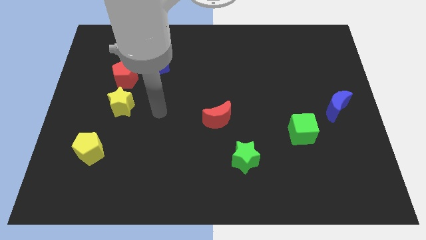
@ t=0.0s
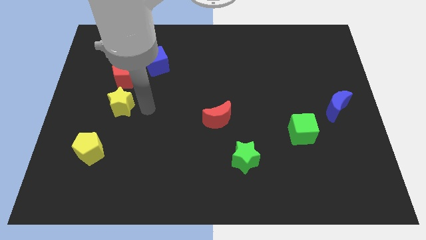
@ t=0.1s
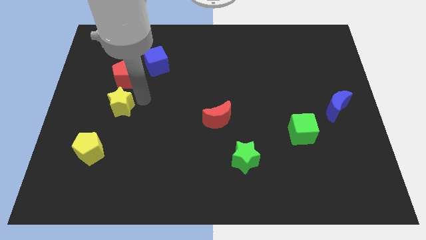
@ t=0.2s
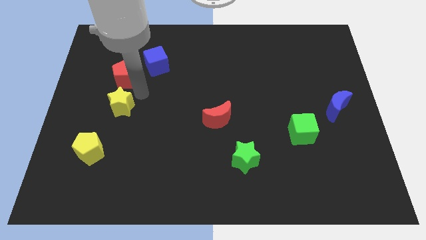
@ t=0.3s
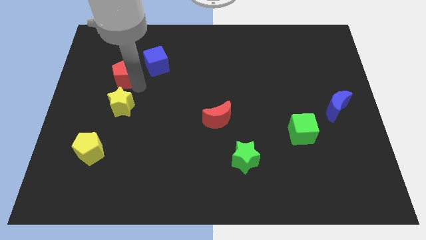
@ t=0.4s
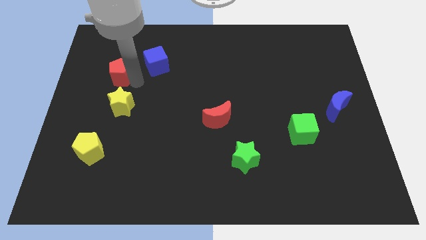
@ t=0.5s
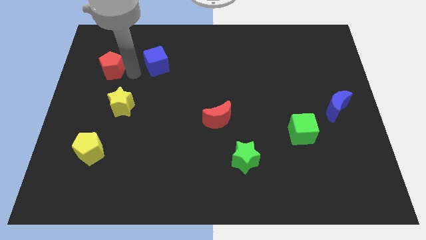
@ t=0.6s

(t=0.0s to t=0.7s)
separate the blue cube from the red pentagon

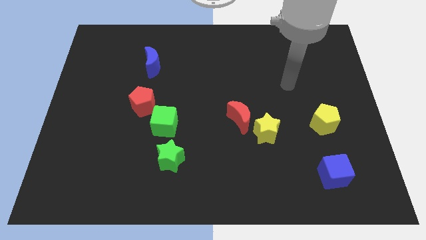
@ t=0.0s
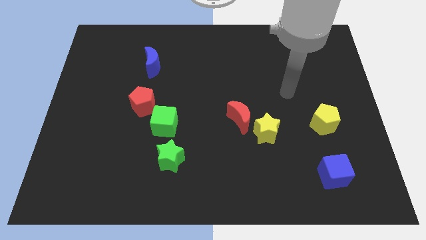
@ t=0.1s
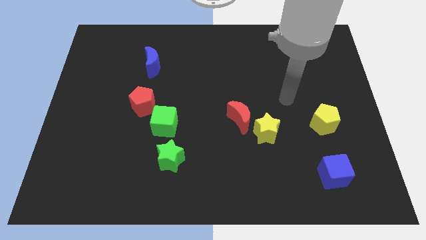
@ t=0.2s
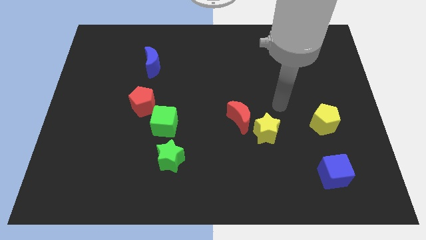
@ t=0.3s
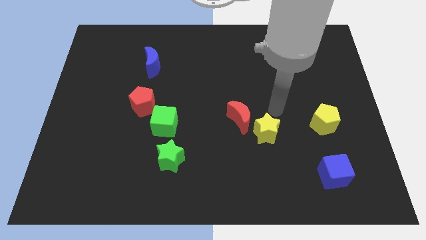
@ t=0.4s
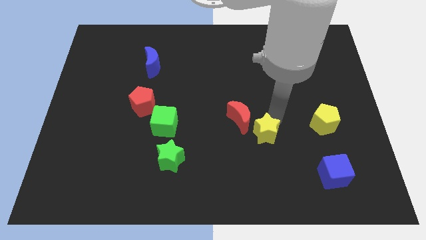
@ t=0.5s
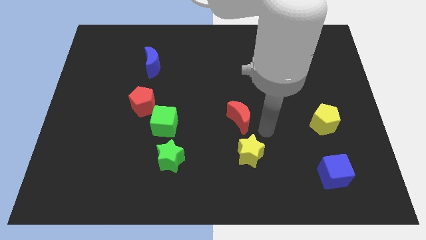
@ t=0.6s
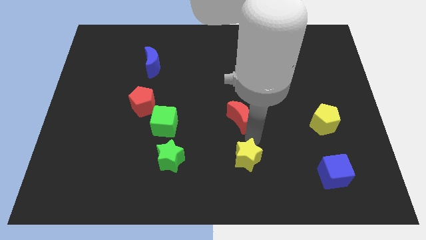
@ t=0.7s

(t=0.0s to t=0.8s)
pull the red moon apart from the yellow star

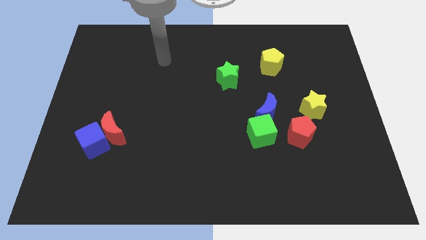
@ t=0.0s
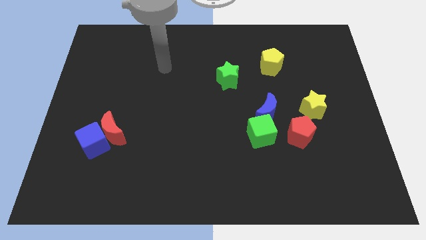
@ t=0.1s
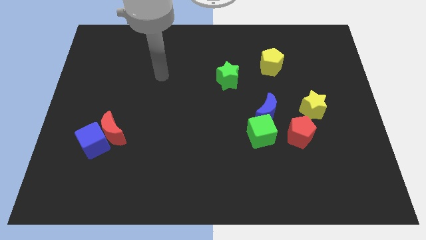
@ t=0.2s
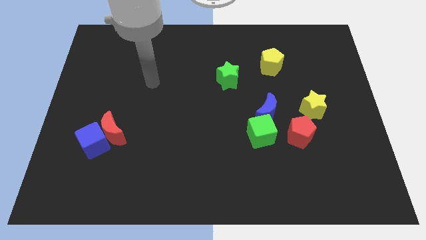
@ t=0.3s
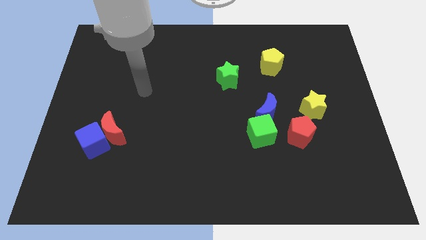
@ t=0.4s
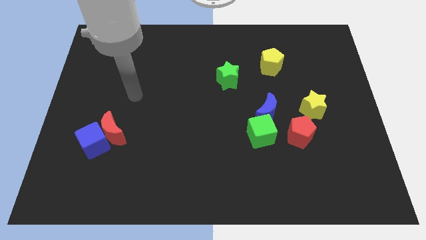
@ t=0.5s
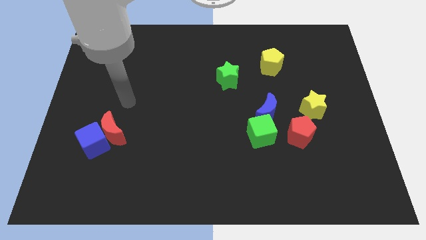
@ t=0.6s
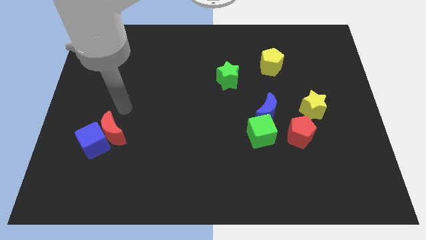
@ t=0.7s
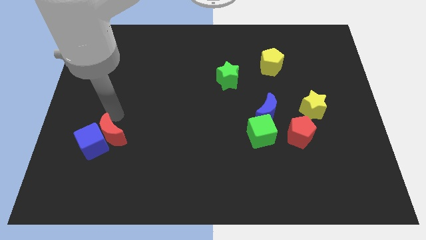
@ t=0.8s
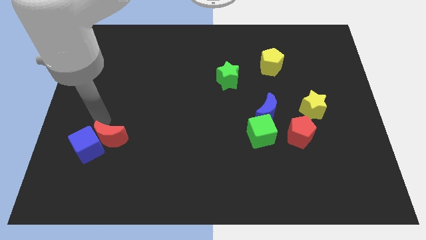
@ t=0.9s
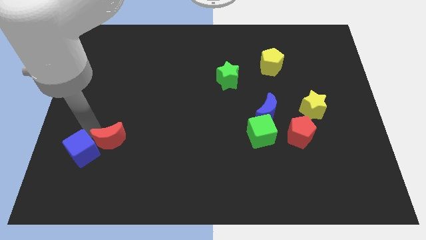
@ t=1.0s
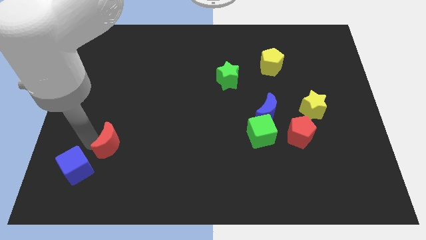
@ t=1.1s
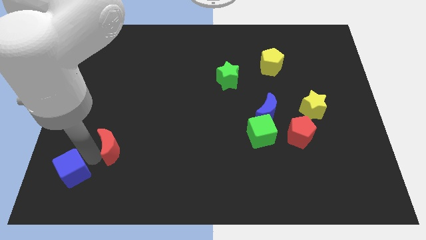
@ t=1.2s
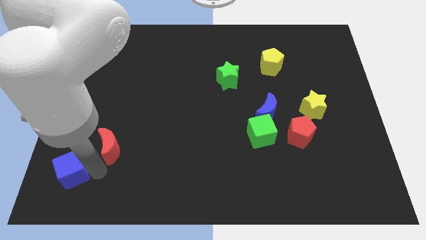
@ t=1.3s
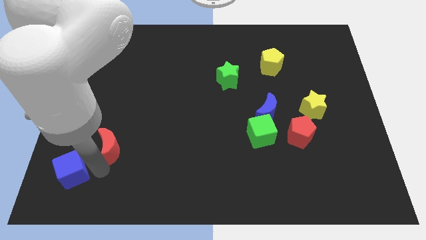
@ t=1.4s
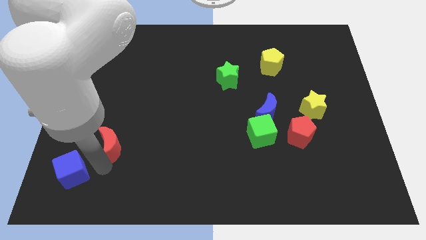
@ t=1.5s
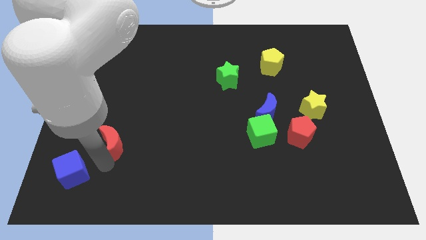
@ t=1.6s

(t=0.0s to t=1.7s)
pull the red moon apart from the blue cube

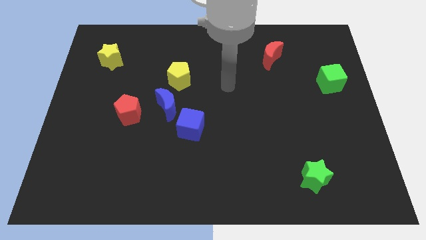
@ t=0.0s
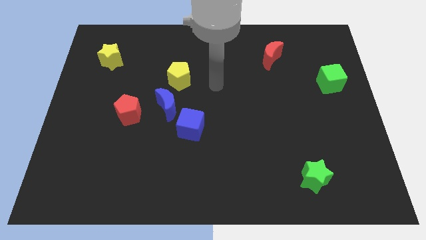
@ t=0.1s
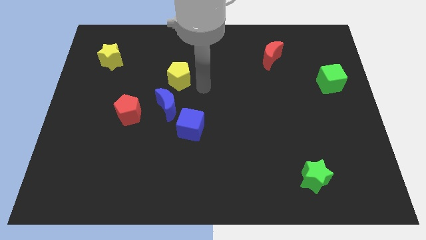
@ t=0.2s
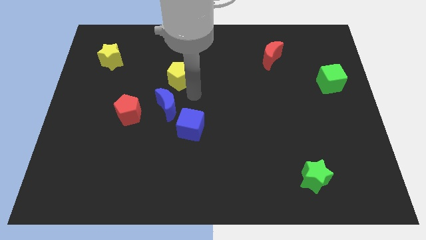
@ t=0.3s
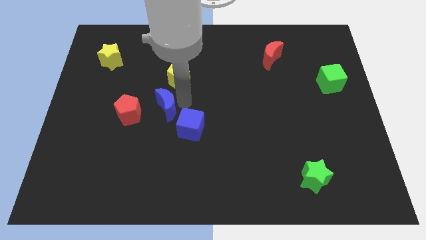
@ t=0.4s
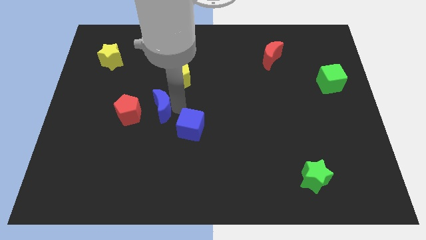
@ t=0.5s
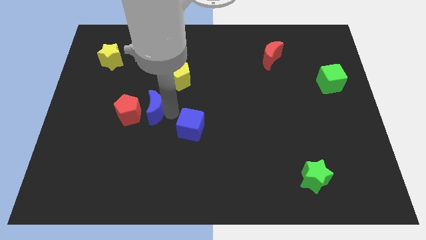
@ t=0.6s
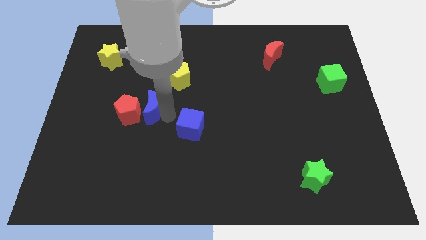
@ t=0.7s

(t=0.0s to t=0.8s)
pull the blue cube apart from the blue moon

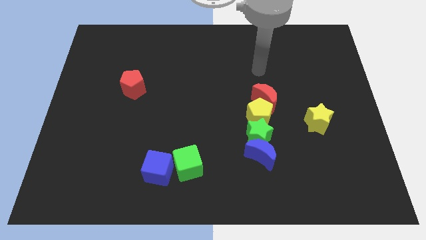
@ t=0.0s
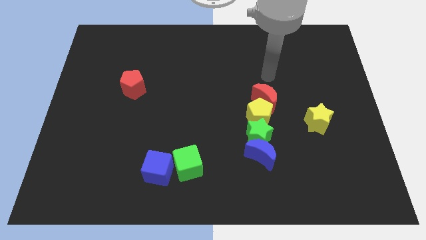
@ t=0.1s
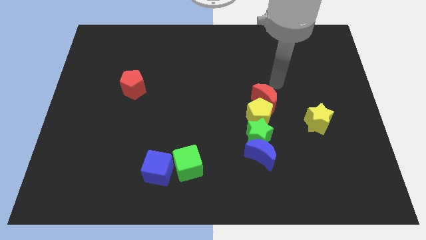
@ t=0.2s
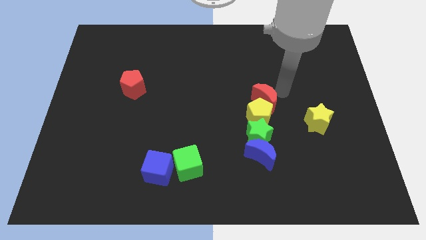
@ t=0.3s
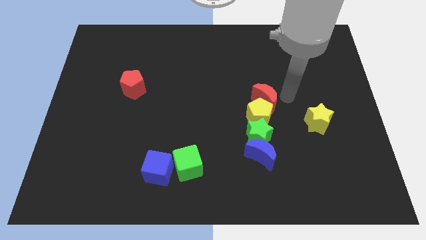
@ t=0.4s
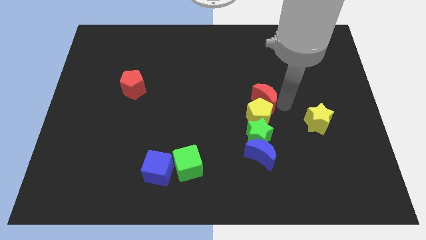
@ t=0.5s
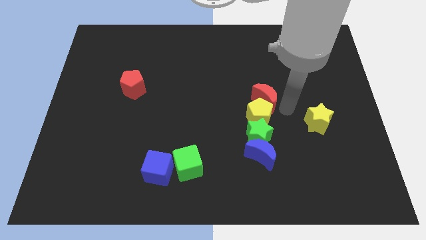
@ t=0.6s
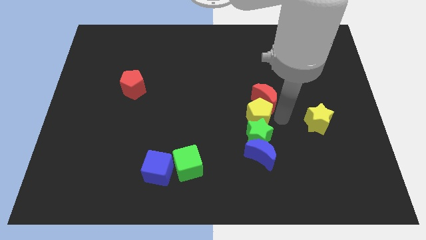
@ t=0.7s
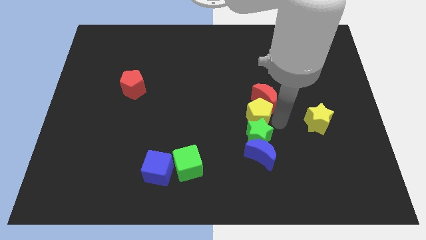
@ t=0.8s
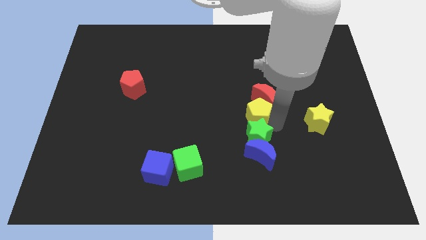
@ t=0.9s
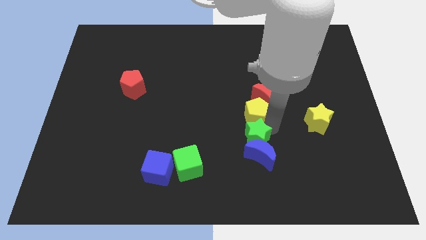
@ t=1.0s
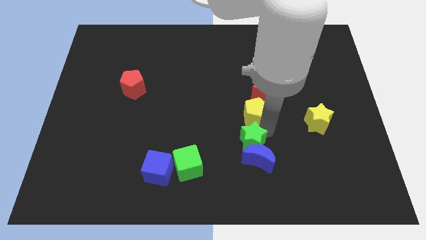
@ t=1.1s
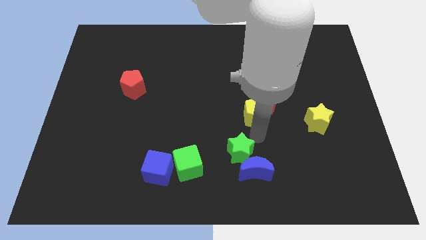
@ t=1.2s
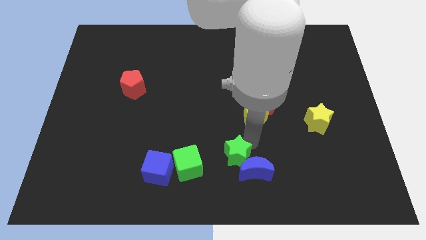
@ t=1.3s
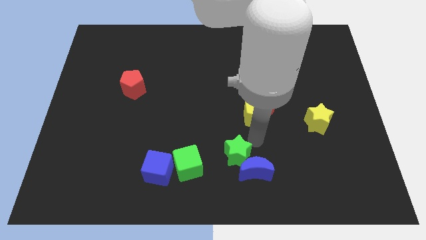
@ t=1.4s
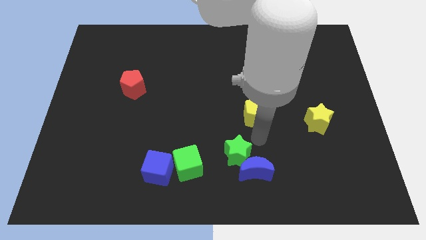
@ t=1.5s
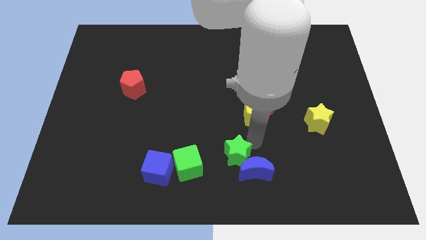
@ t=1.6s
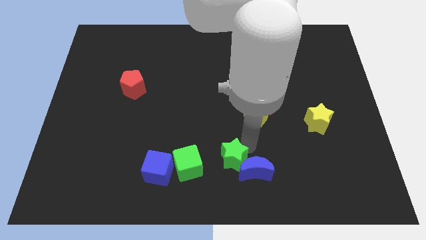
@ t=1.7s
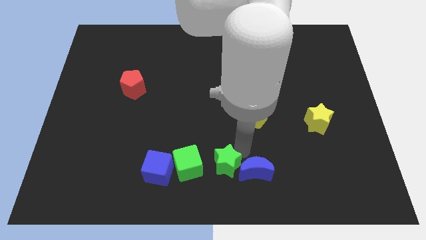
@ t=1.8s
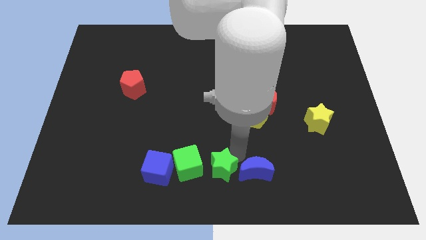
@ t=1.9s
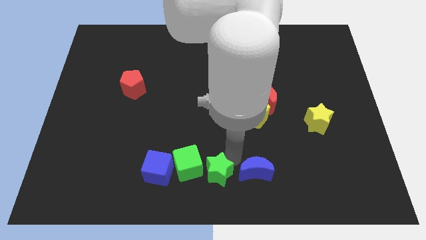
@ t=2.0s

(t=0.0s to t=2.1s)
separate the green star from the blue moon and yellow pentagon

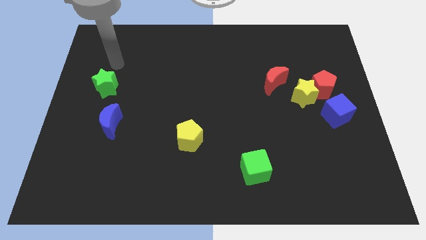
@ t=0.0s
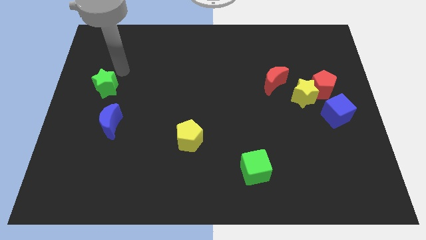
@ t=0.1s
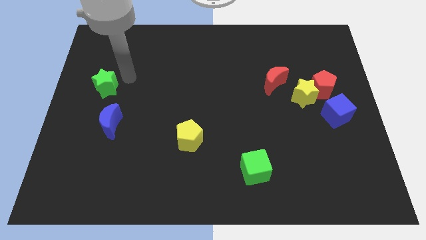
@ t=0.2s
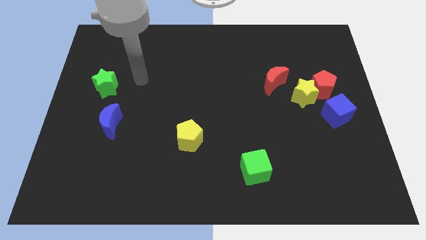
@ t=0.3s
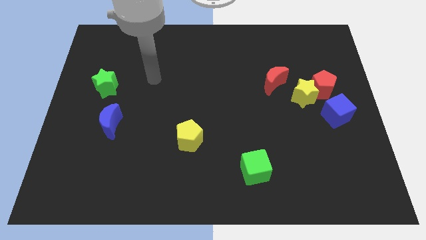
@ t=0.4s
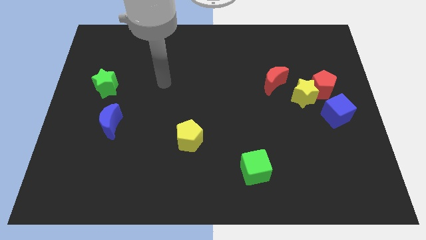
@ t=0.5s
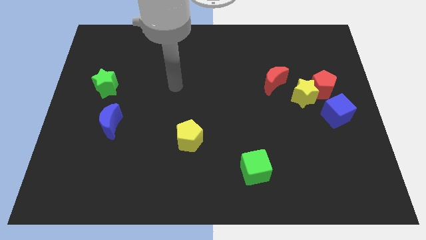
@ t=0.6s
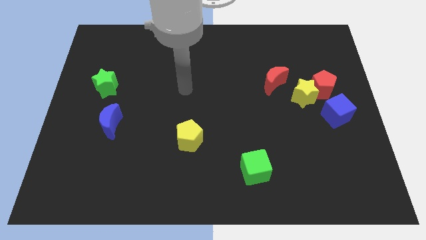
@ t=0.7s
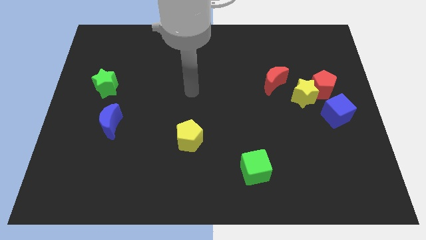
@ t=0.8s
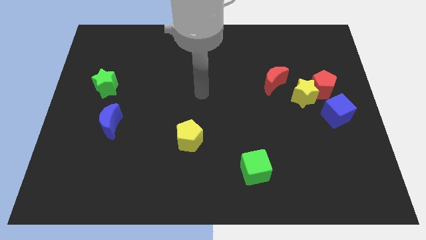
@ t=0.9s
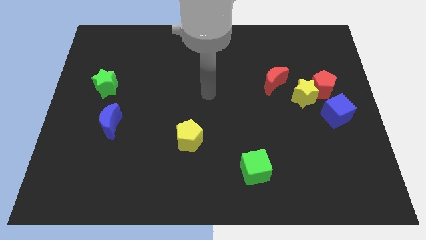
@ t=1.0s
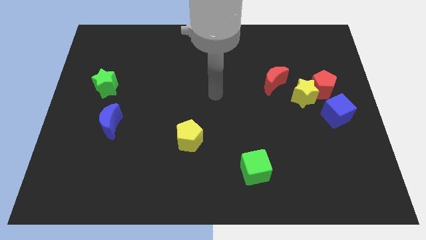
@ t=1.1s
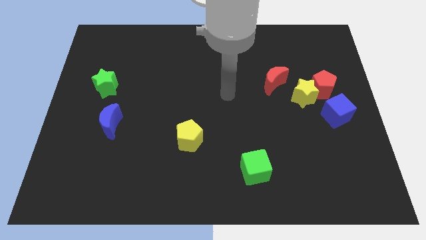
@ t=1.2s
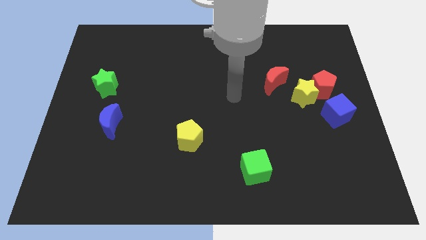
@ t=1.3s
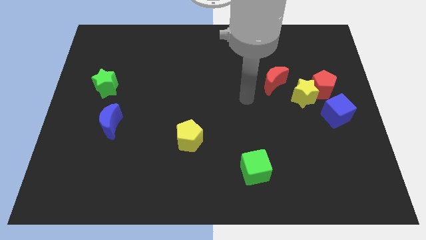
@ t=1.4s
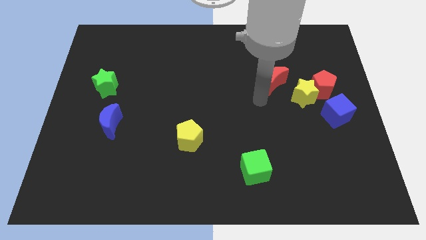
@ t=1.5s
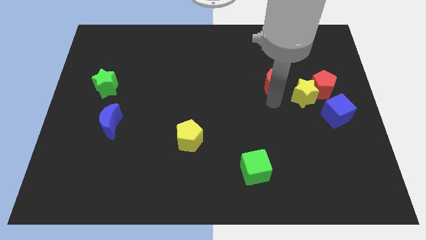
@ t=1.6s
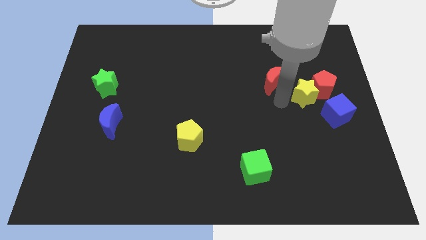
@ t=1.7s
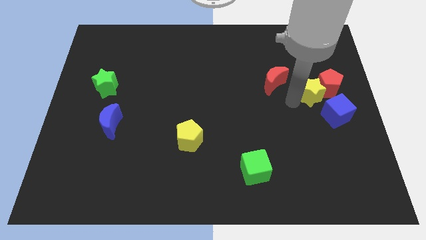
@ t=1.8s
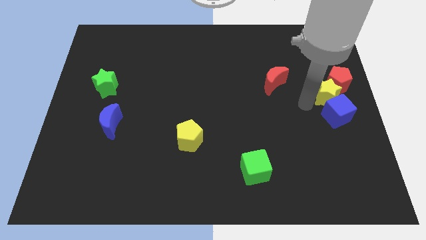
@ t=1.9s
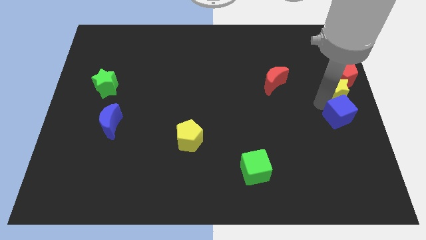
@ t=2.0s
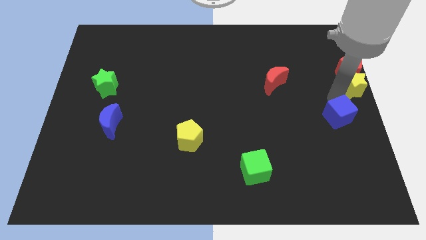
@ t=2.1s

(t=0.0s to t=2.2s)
pull the red pentagon apart from the yellow star and blue cube

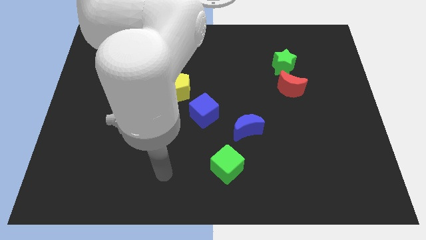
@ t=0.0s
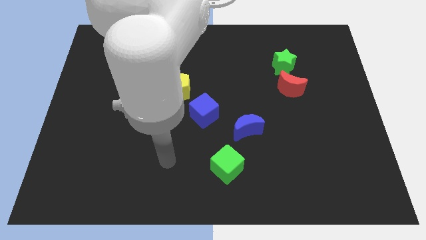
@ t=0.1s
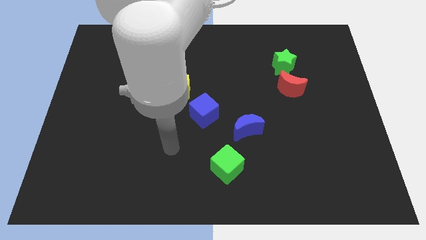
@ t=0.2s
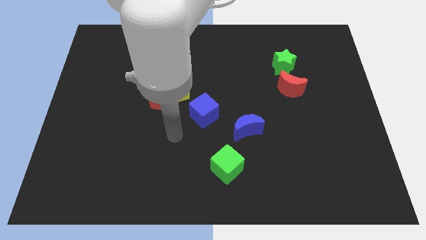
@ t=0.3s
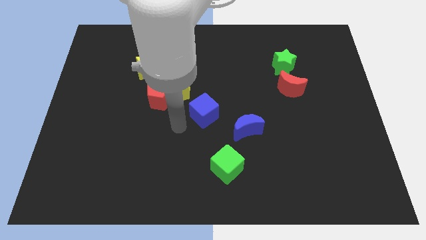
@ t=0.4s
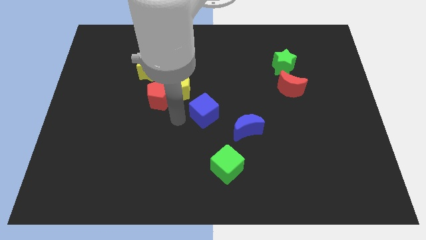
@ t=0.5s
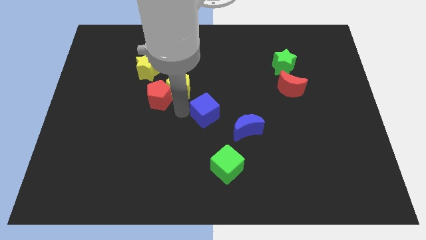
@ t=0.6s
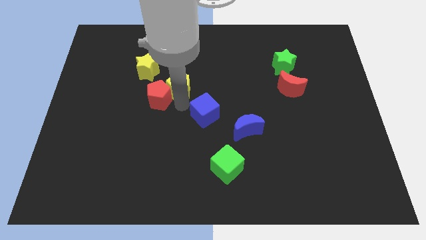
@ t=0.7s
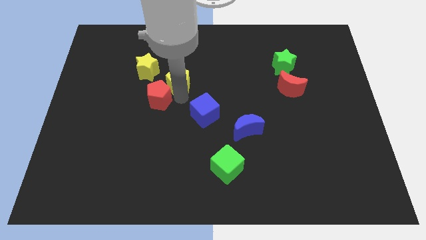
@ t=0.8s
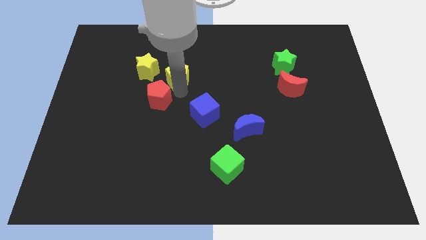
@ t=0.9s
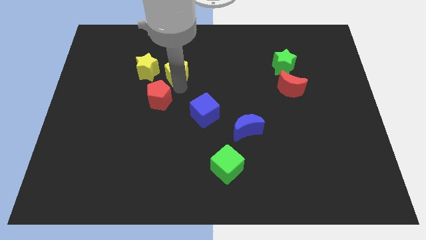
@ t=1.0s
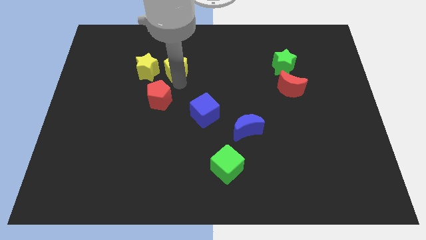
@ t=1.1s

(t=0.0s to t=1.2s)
move the yellow pentagon away from the red pentagon and blue cube
